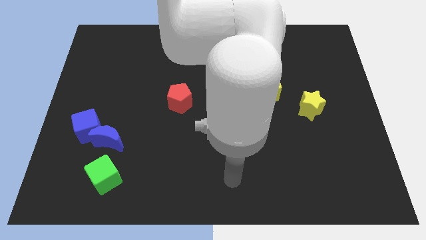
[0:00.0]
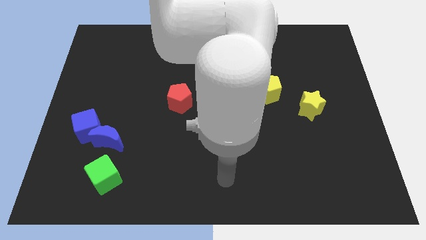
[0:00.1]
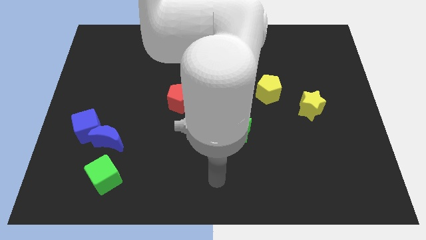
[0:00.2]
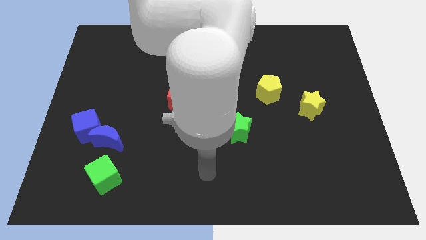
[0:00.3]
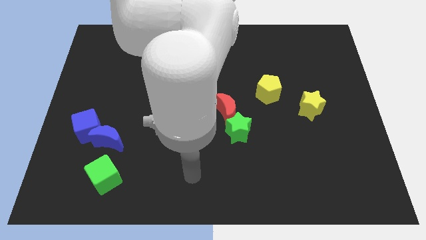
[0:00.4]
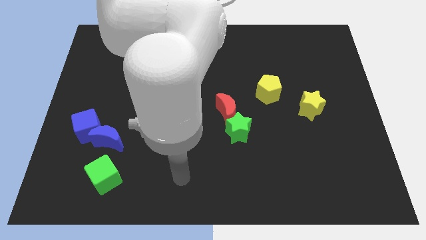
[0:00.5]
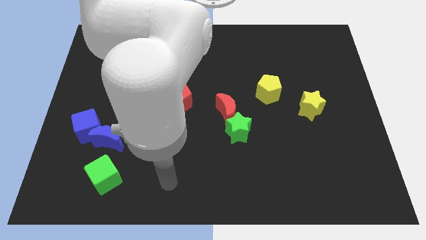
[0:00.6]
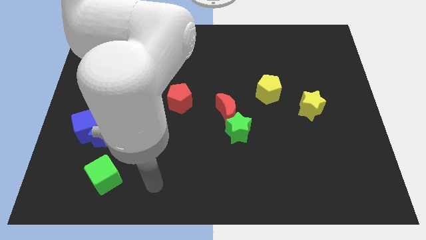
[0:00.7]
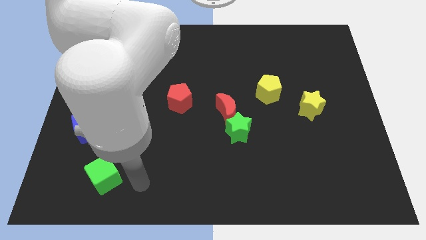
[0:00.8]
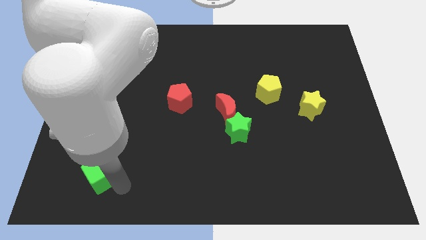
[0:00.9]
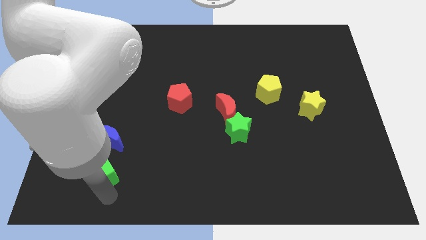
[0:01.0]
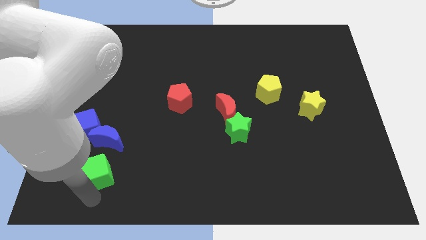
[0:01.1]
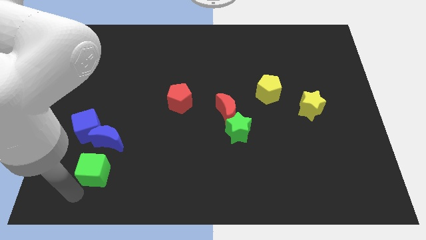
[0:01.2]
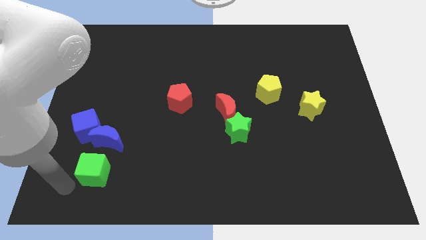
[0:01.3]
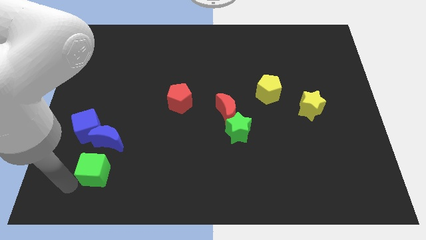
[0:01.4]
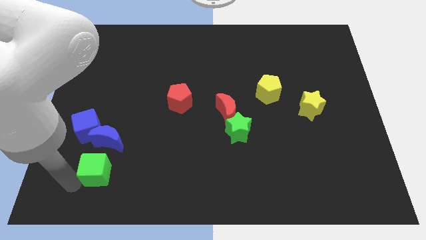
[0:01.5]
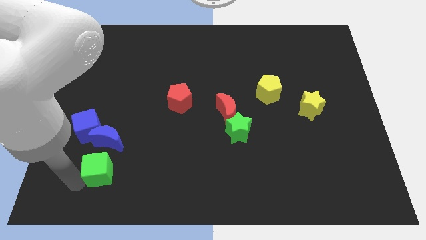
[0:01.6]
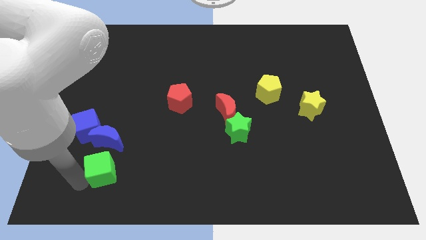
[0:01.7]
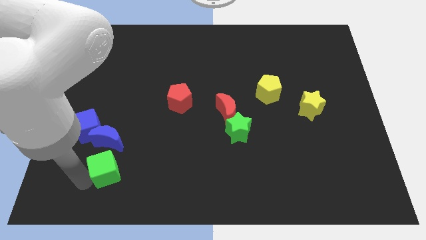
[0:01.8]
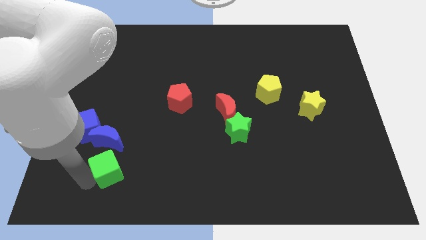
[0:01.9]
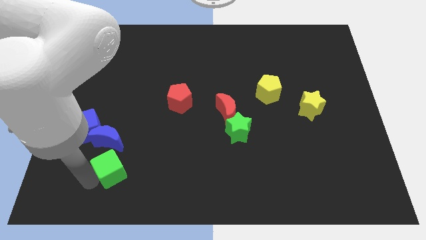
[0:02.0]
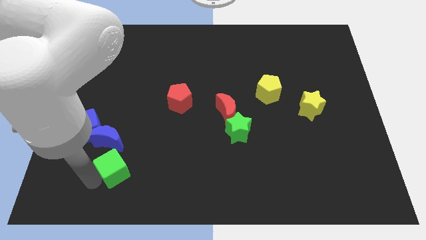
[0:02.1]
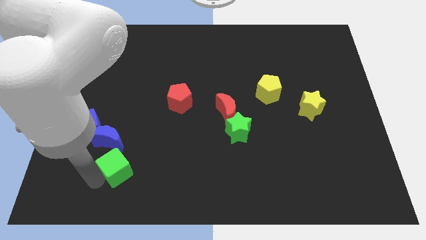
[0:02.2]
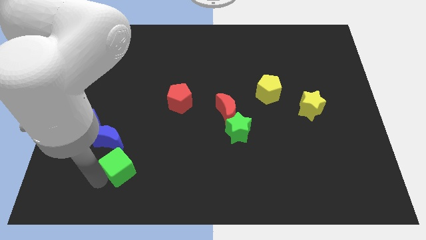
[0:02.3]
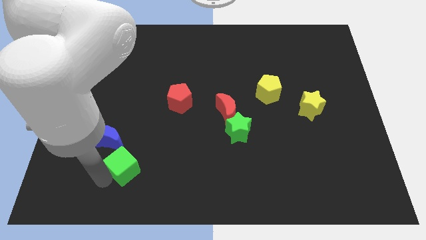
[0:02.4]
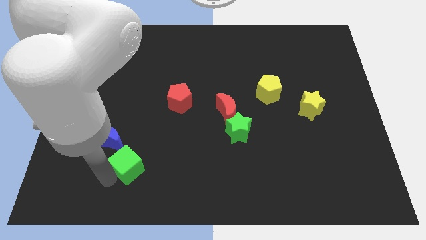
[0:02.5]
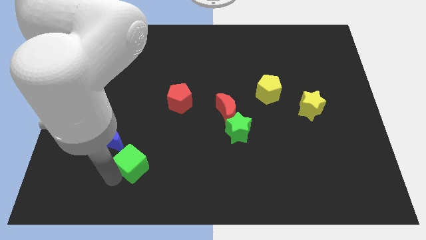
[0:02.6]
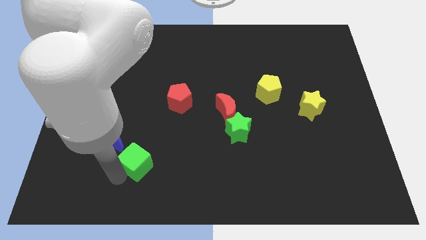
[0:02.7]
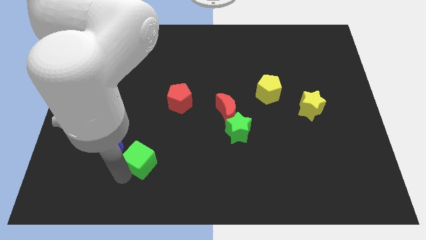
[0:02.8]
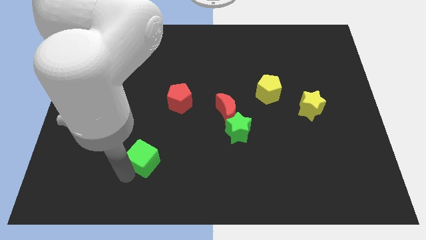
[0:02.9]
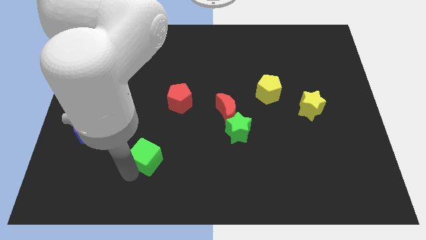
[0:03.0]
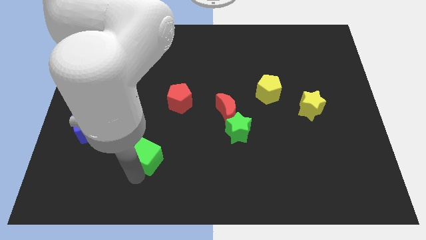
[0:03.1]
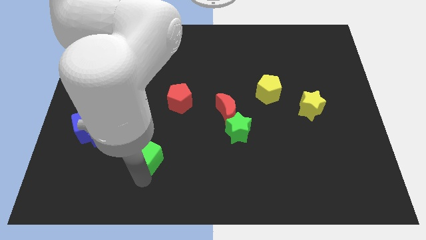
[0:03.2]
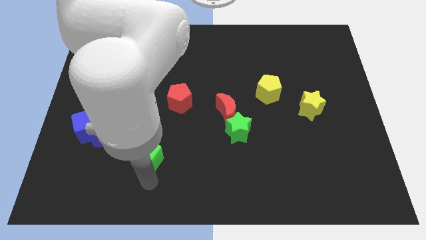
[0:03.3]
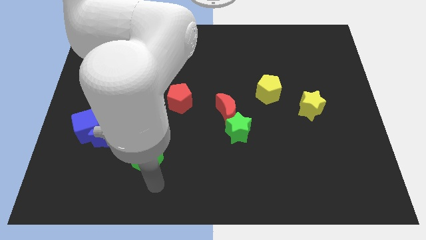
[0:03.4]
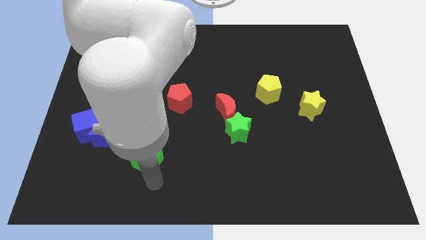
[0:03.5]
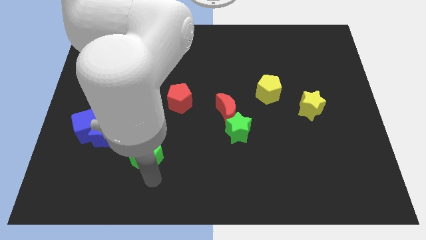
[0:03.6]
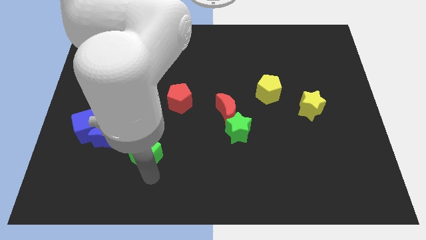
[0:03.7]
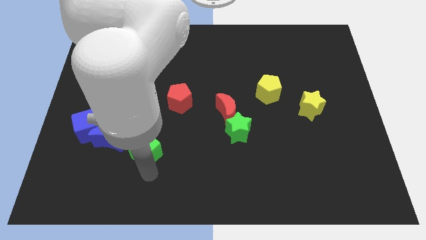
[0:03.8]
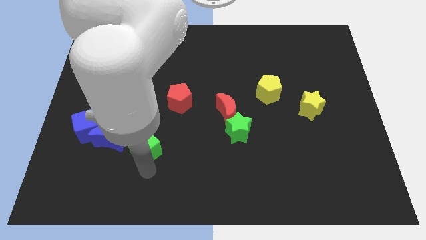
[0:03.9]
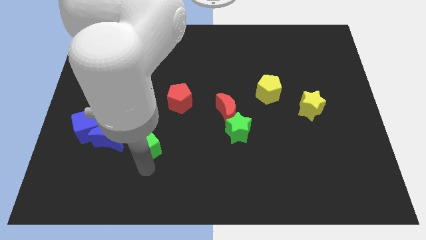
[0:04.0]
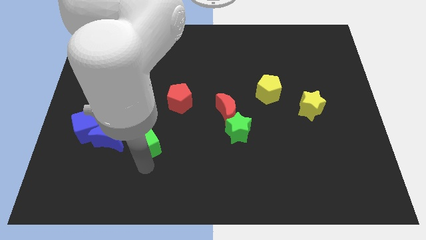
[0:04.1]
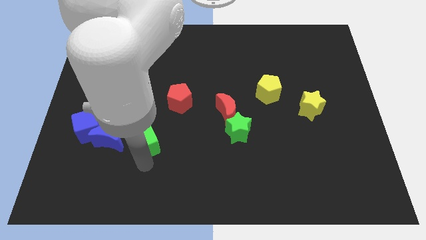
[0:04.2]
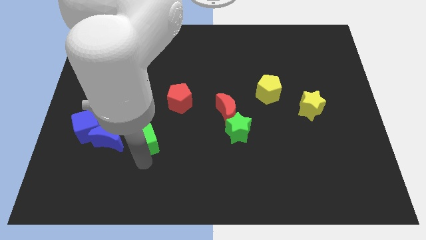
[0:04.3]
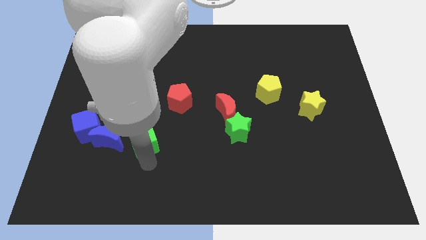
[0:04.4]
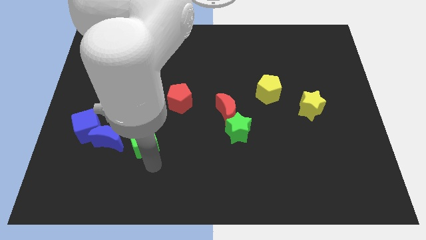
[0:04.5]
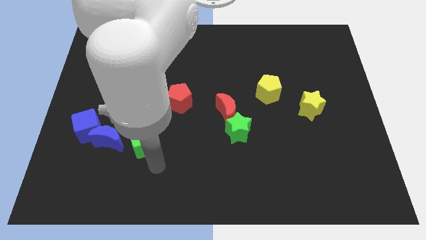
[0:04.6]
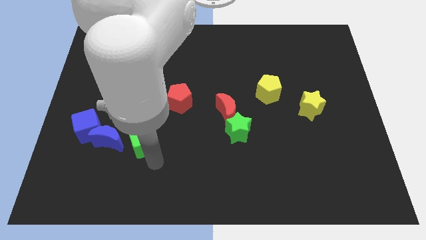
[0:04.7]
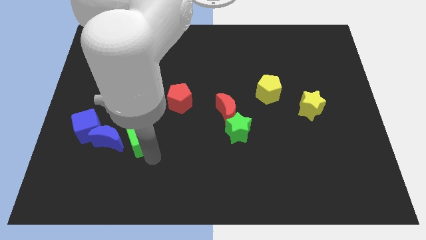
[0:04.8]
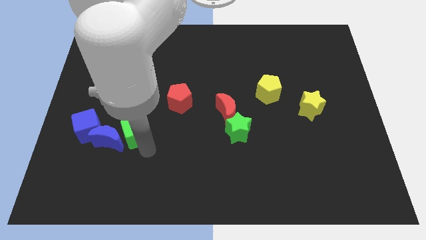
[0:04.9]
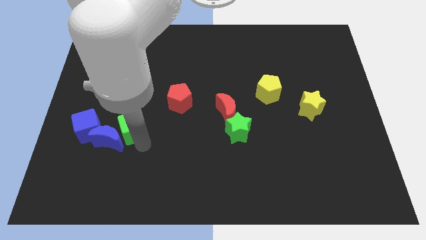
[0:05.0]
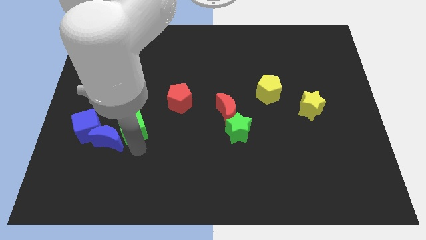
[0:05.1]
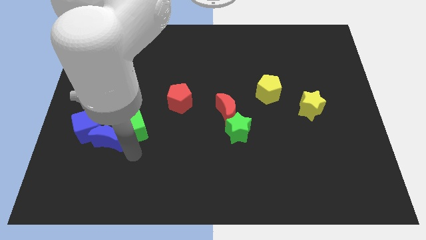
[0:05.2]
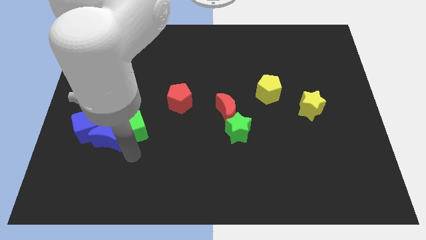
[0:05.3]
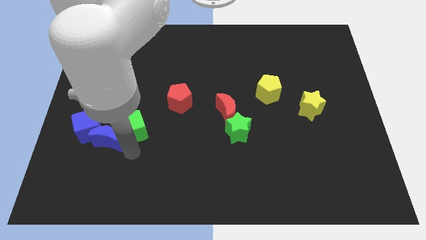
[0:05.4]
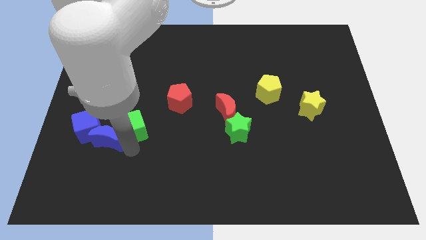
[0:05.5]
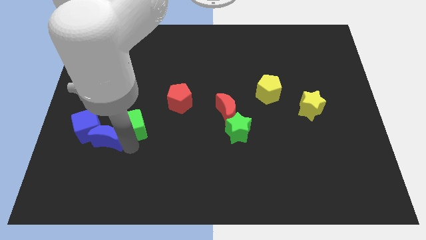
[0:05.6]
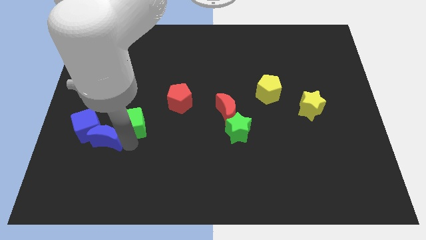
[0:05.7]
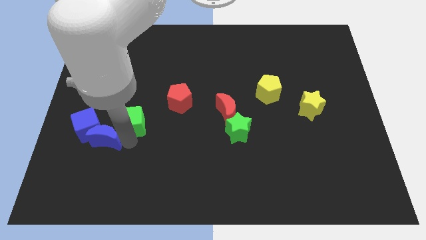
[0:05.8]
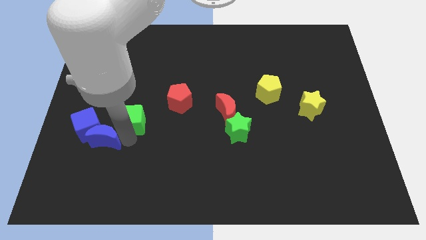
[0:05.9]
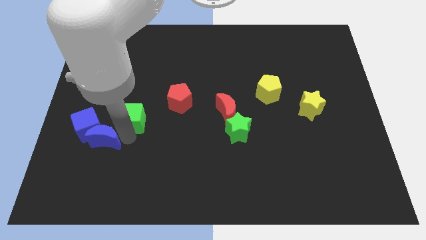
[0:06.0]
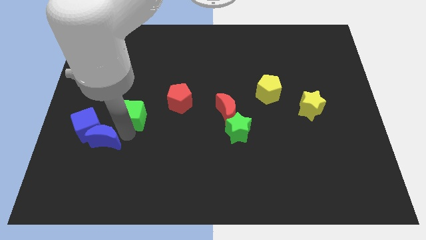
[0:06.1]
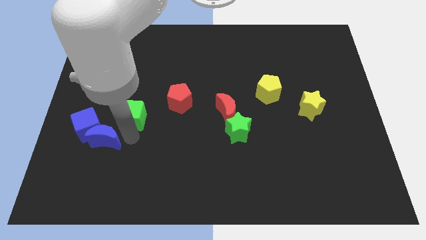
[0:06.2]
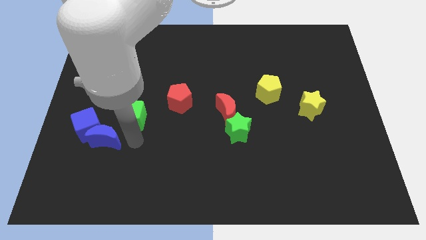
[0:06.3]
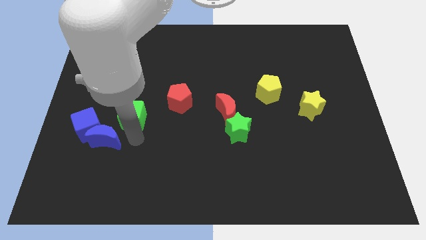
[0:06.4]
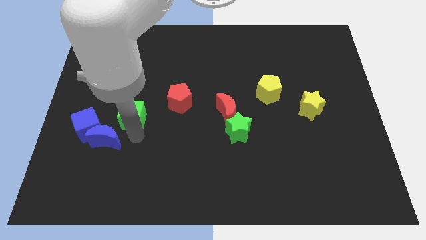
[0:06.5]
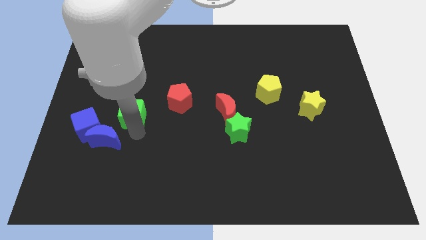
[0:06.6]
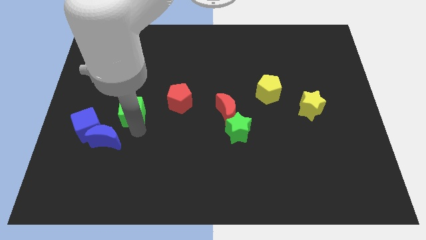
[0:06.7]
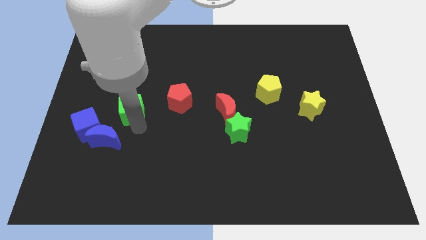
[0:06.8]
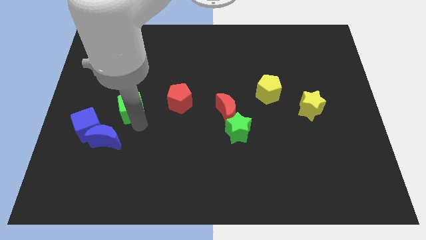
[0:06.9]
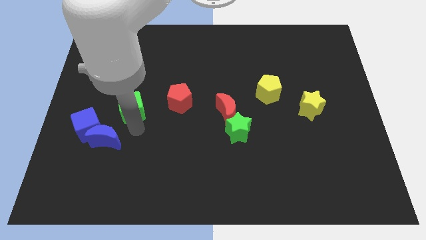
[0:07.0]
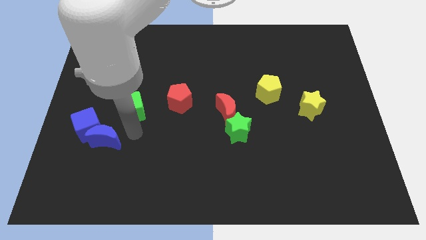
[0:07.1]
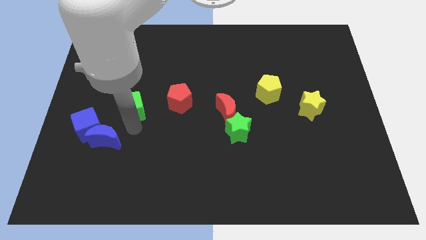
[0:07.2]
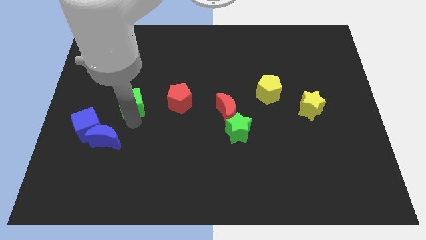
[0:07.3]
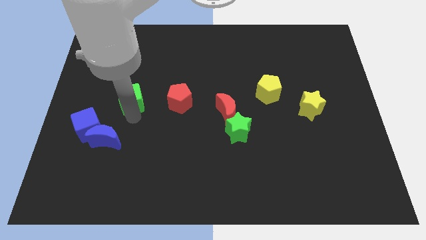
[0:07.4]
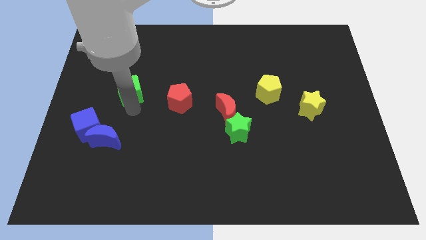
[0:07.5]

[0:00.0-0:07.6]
push the green cube up

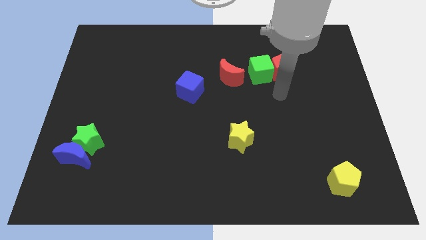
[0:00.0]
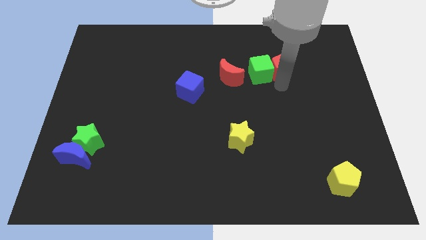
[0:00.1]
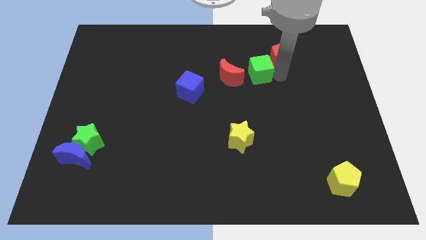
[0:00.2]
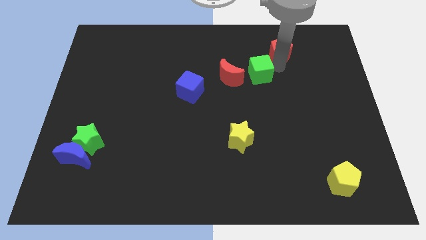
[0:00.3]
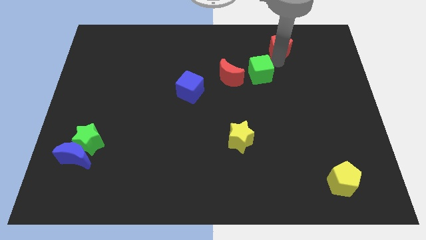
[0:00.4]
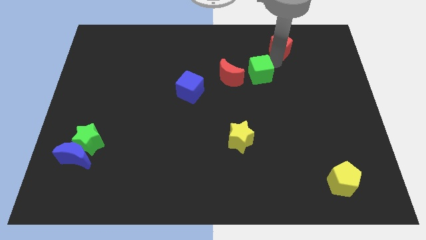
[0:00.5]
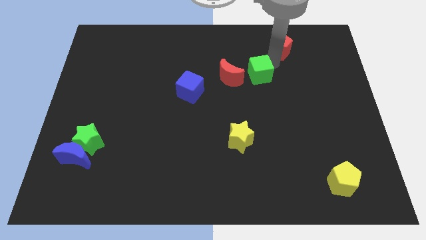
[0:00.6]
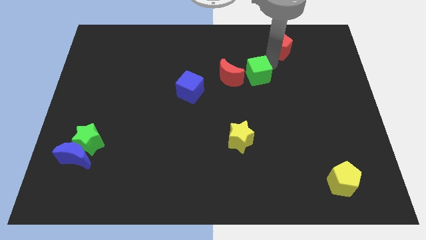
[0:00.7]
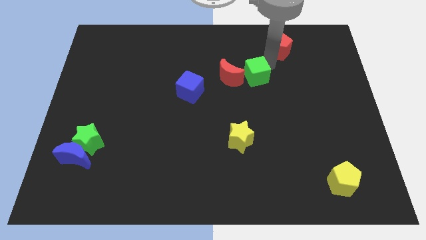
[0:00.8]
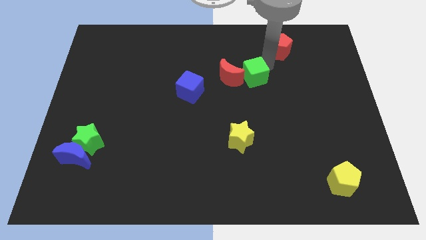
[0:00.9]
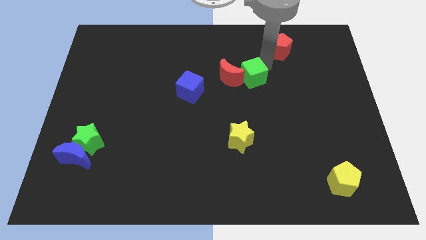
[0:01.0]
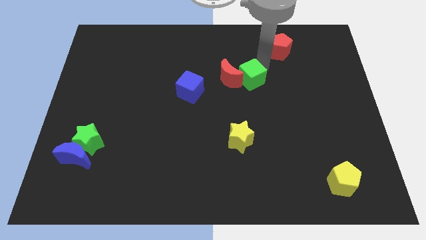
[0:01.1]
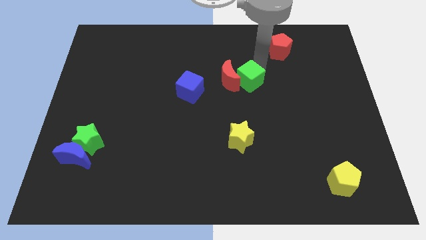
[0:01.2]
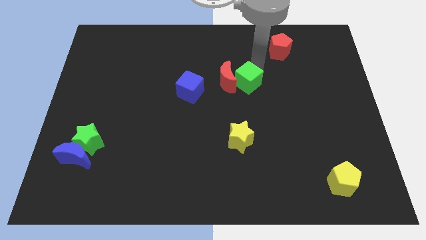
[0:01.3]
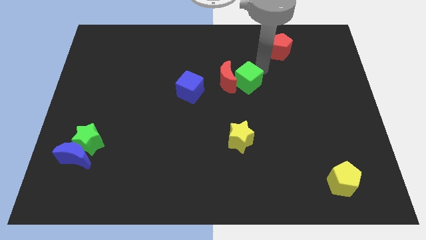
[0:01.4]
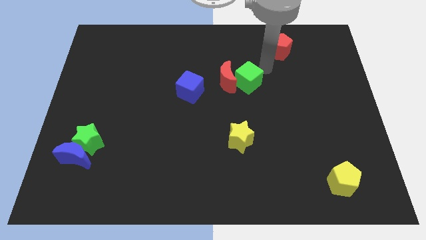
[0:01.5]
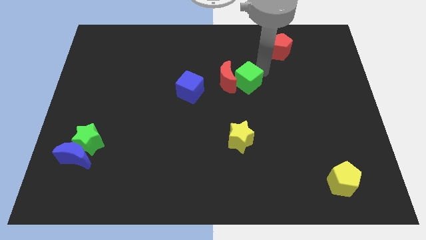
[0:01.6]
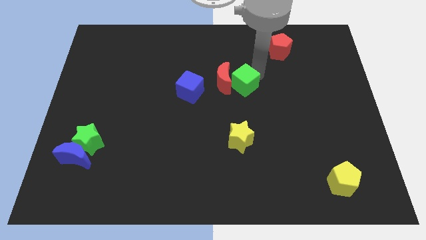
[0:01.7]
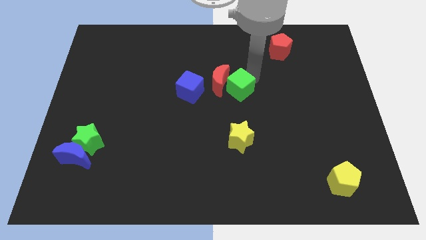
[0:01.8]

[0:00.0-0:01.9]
slightly push the green cube downwards and then to the left
